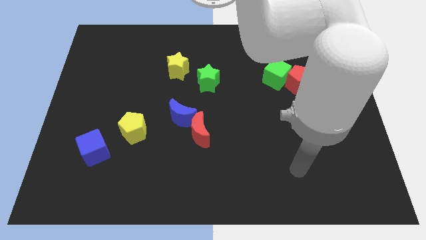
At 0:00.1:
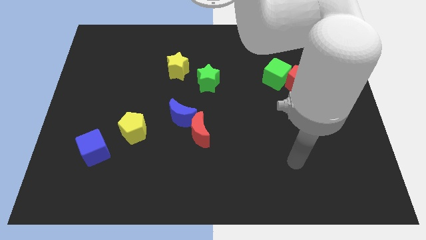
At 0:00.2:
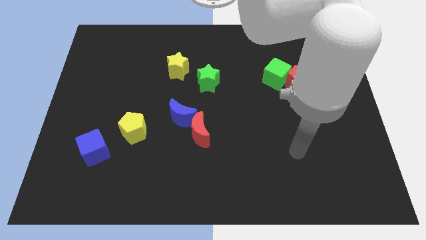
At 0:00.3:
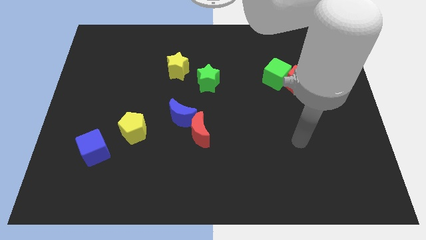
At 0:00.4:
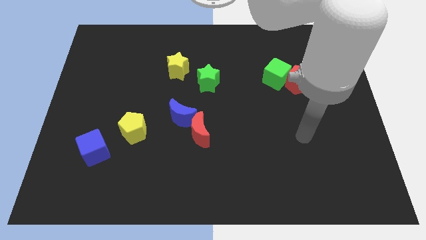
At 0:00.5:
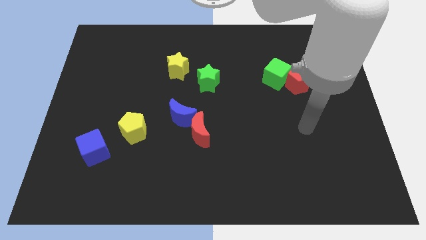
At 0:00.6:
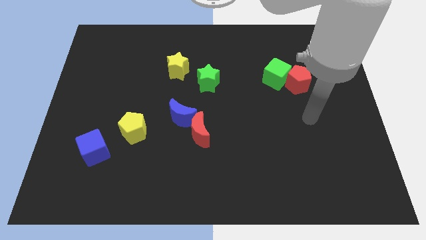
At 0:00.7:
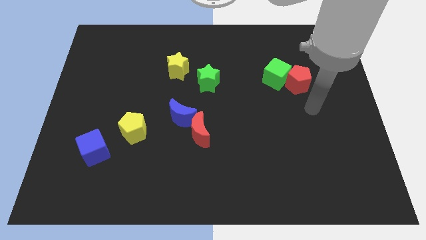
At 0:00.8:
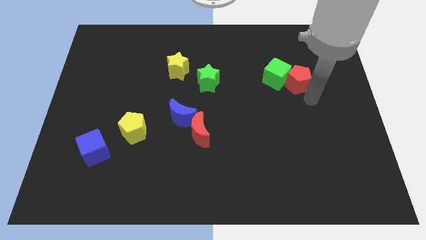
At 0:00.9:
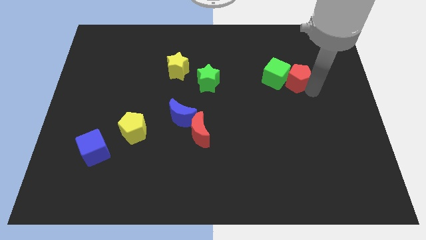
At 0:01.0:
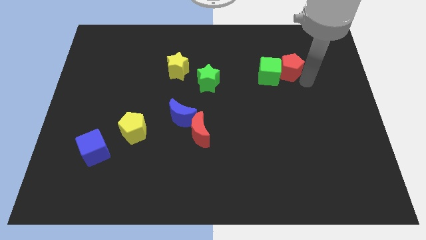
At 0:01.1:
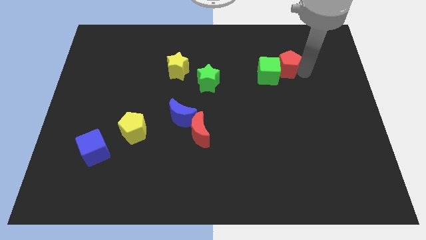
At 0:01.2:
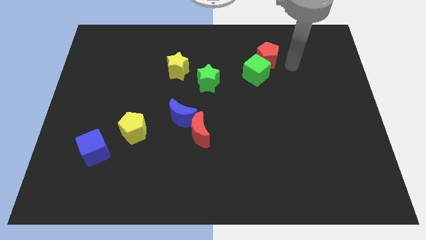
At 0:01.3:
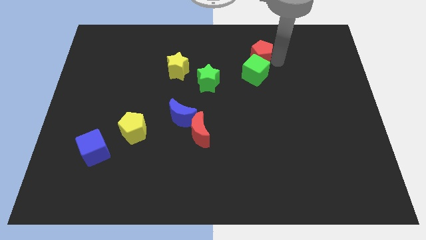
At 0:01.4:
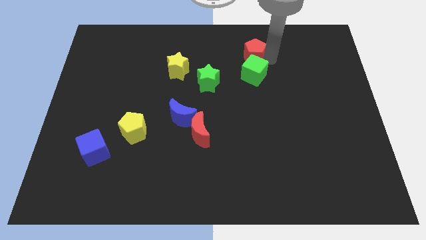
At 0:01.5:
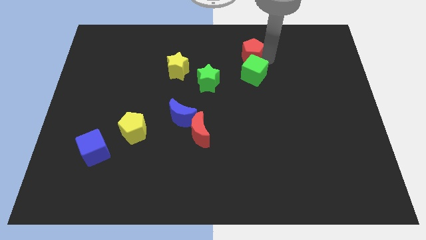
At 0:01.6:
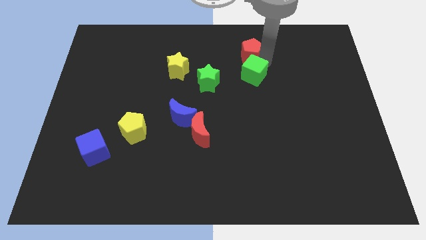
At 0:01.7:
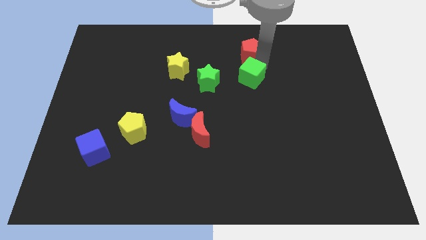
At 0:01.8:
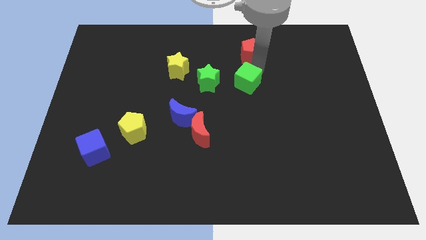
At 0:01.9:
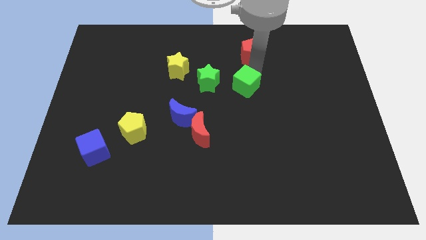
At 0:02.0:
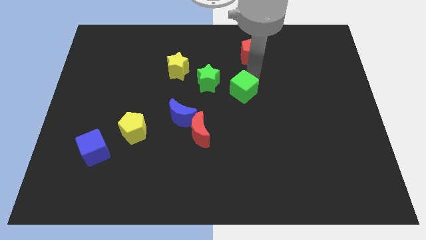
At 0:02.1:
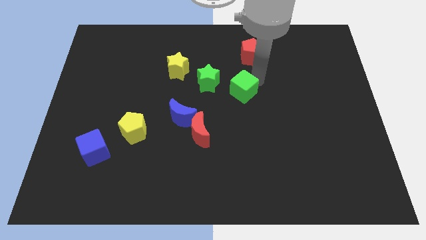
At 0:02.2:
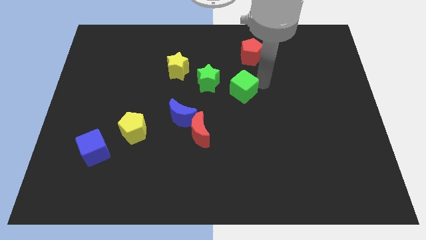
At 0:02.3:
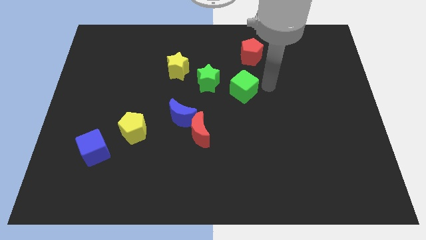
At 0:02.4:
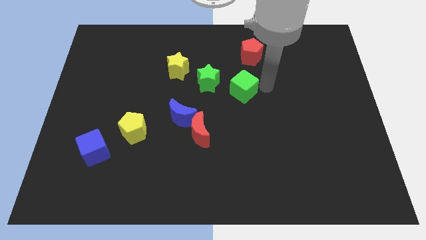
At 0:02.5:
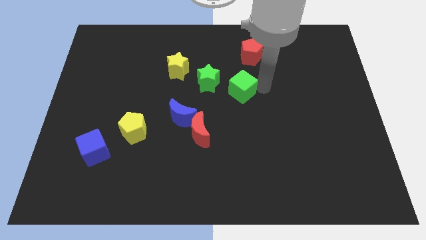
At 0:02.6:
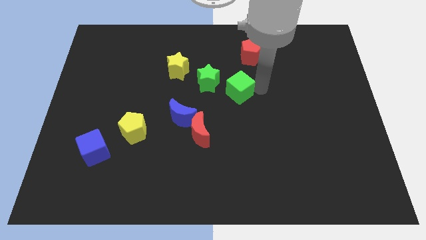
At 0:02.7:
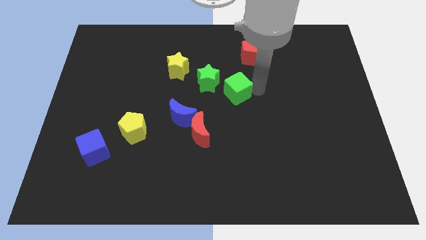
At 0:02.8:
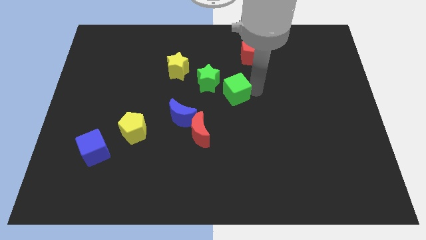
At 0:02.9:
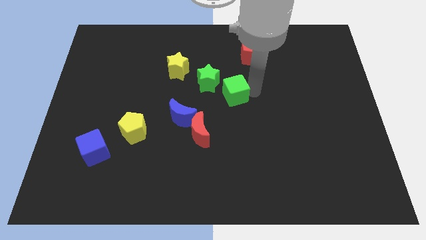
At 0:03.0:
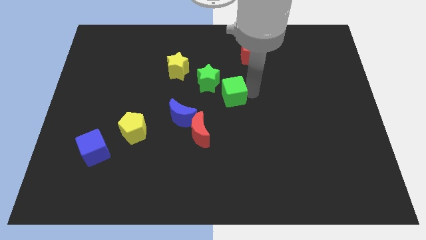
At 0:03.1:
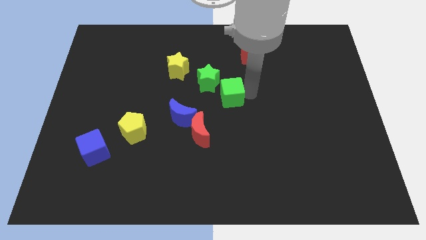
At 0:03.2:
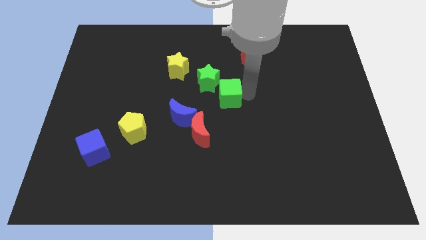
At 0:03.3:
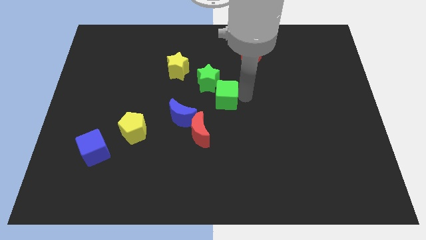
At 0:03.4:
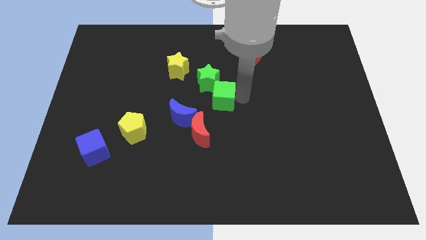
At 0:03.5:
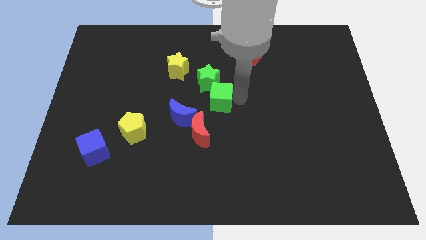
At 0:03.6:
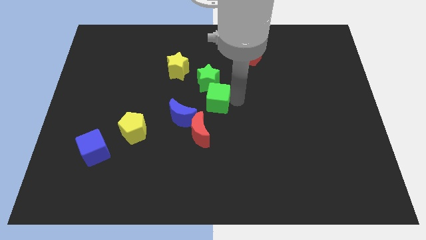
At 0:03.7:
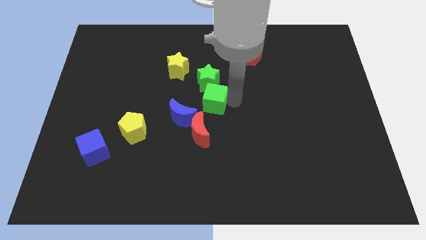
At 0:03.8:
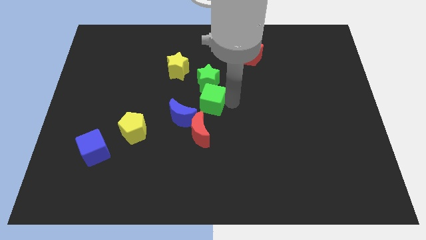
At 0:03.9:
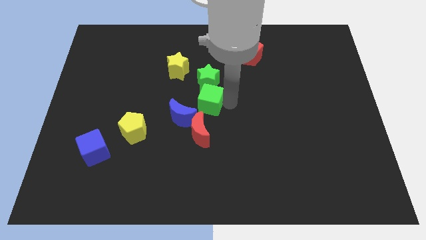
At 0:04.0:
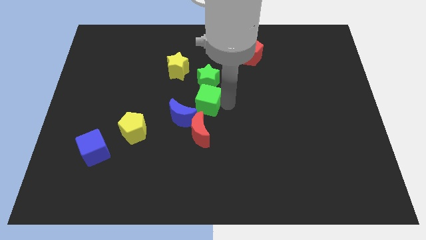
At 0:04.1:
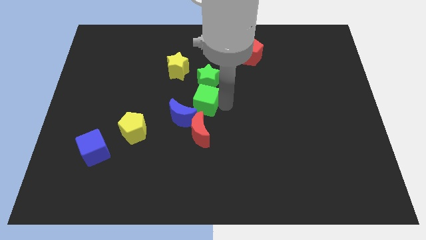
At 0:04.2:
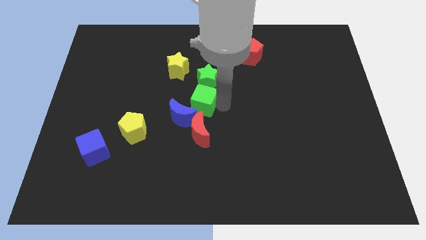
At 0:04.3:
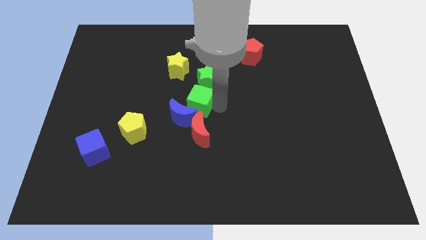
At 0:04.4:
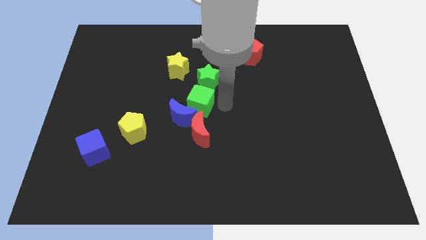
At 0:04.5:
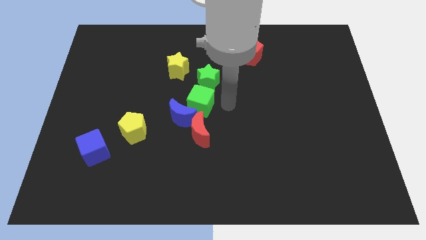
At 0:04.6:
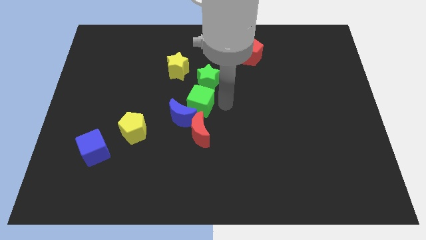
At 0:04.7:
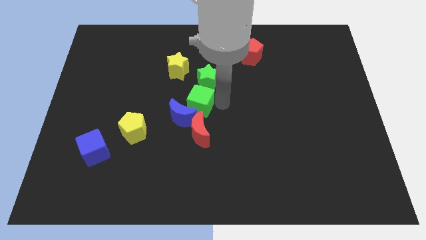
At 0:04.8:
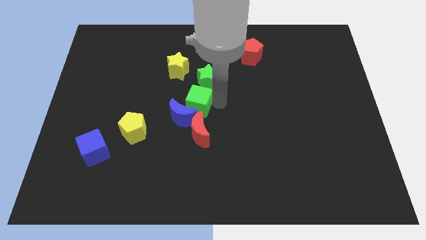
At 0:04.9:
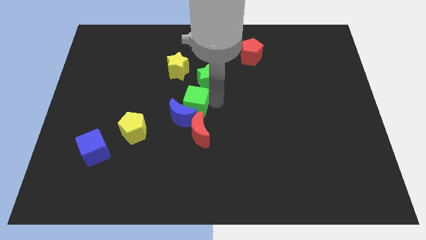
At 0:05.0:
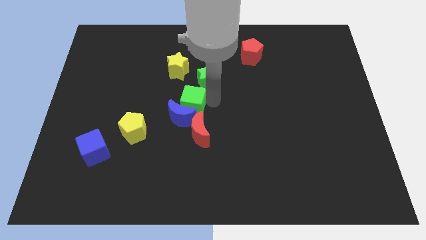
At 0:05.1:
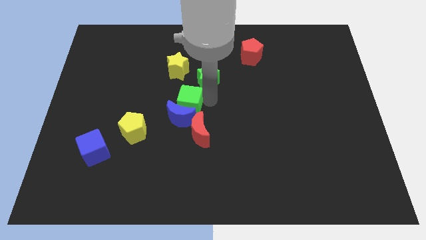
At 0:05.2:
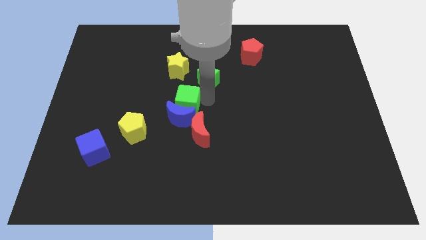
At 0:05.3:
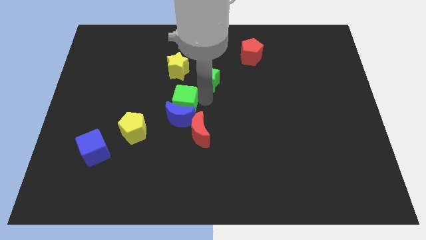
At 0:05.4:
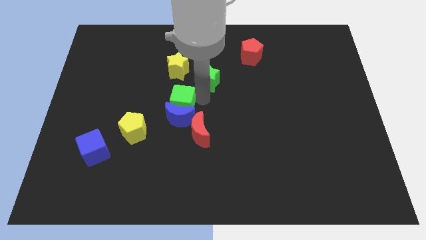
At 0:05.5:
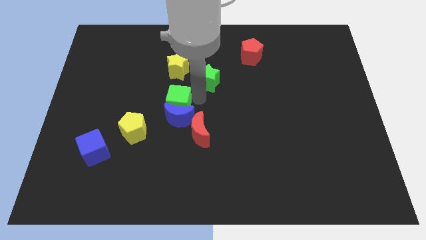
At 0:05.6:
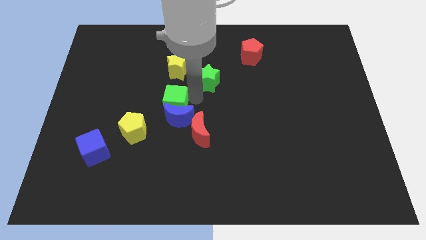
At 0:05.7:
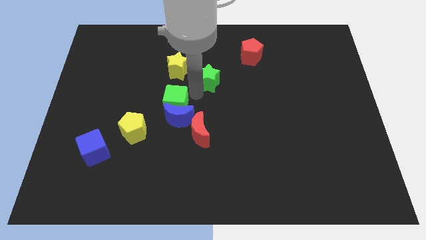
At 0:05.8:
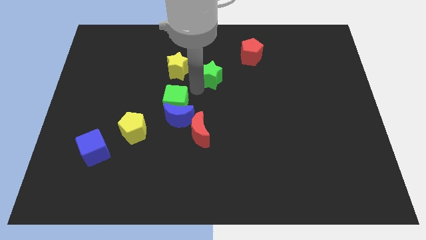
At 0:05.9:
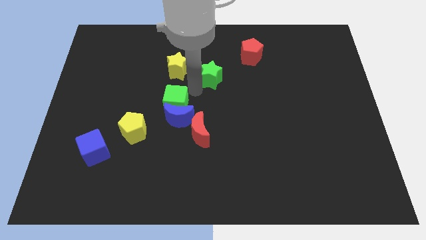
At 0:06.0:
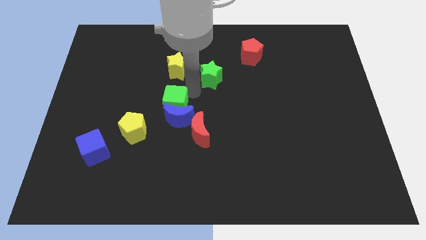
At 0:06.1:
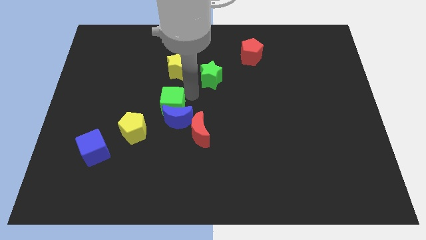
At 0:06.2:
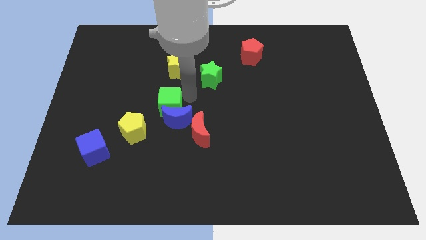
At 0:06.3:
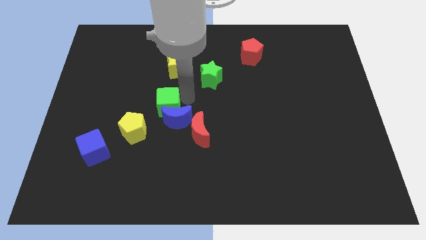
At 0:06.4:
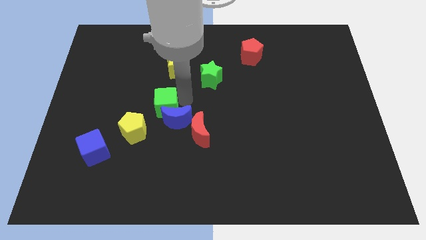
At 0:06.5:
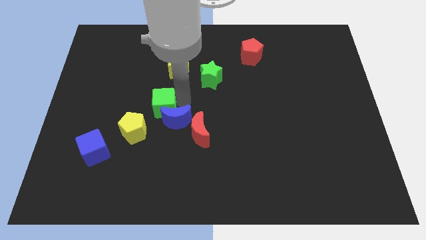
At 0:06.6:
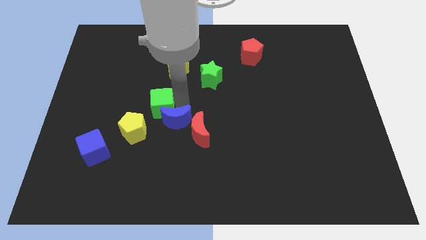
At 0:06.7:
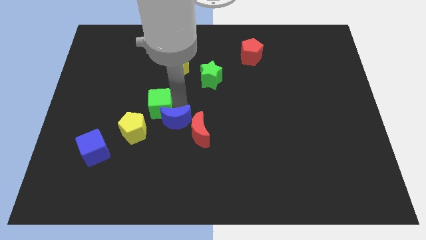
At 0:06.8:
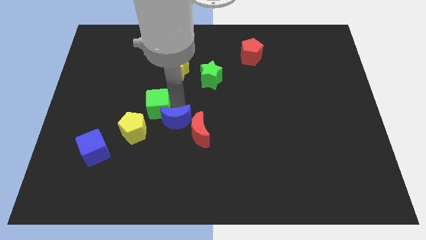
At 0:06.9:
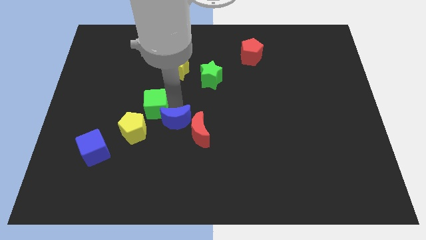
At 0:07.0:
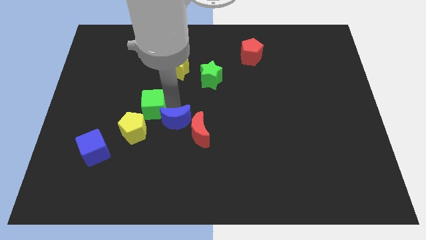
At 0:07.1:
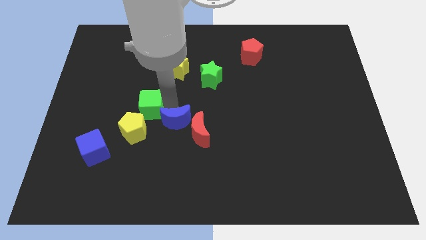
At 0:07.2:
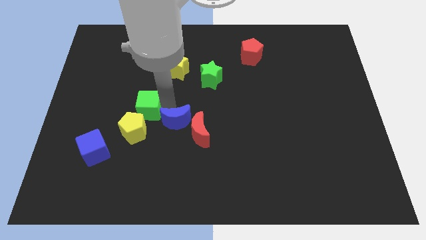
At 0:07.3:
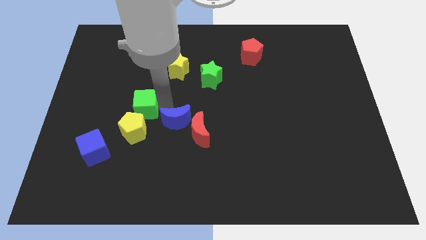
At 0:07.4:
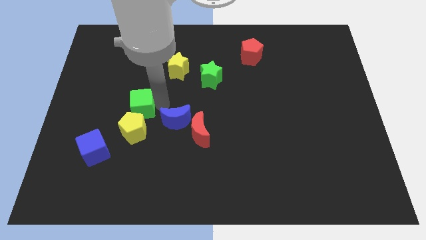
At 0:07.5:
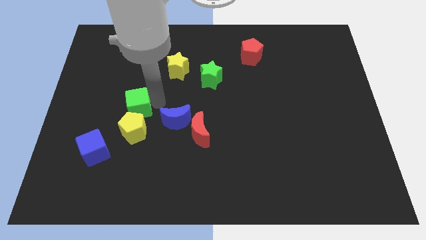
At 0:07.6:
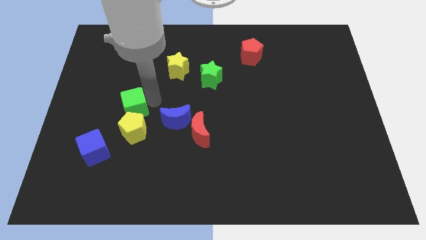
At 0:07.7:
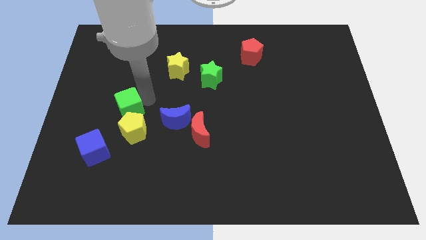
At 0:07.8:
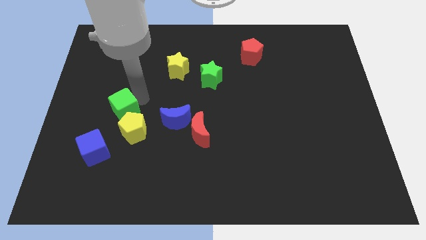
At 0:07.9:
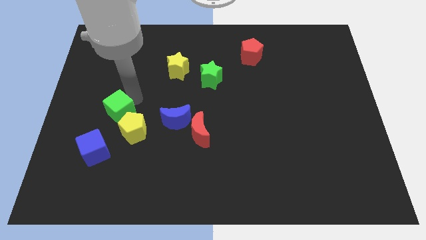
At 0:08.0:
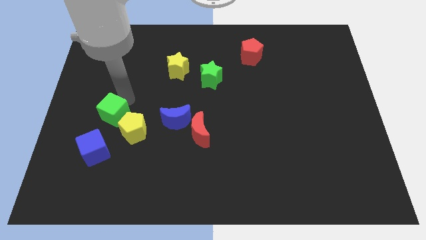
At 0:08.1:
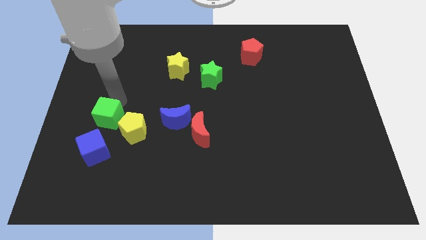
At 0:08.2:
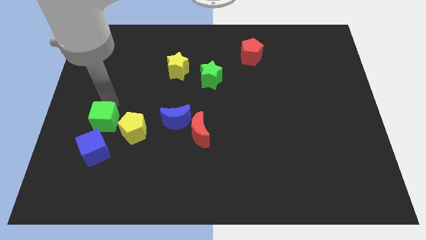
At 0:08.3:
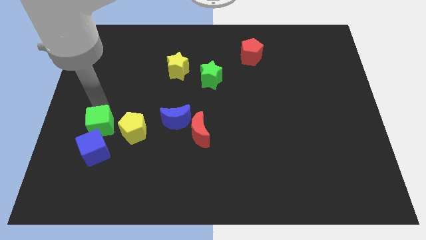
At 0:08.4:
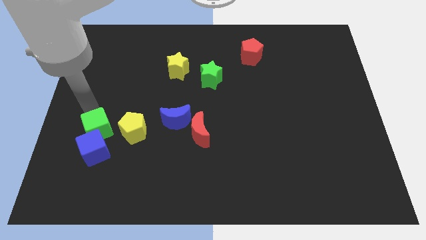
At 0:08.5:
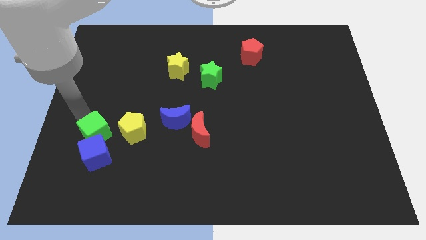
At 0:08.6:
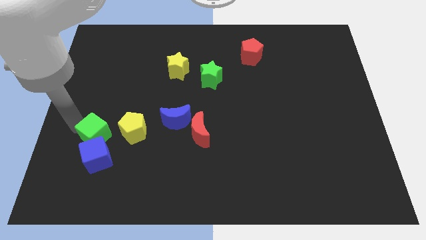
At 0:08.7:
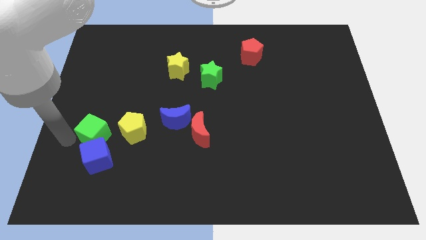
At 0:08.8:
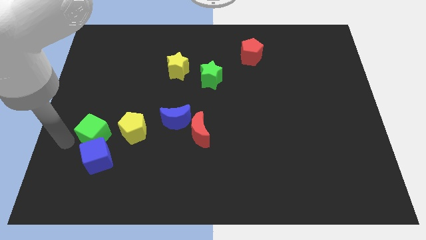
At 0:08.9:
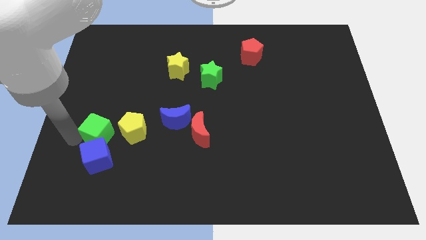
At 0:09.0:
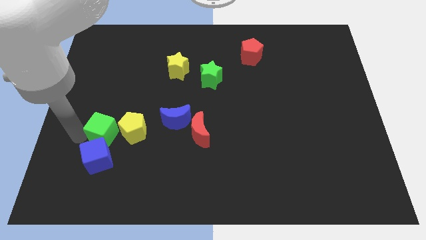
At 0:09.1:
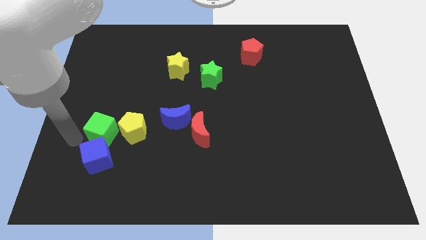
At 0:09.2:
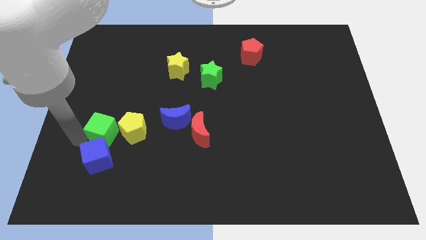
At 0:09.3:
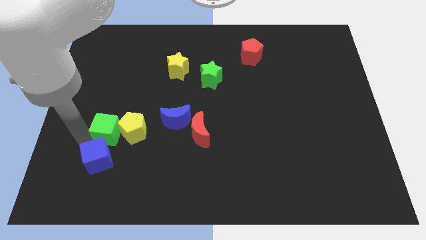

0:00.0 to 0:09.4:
put the green cube next to the yellow pentagon
